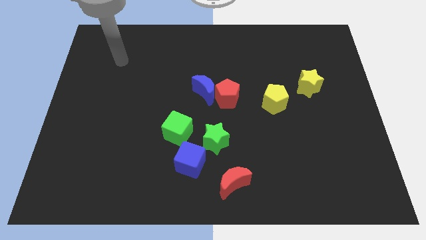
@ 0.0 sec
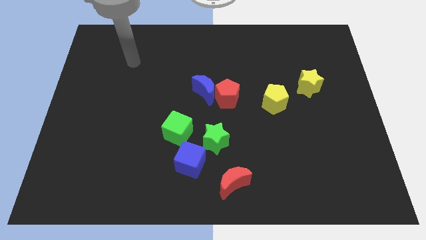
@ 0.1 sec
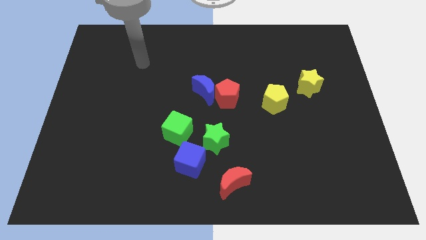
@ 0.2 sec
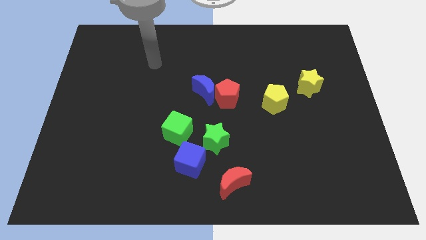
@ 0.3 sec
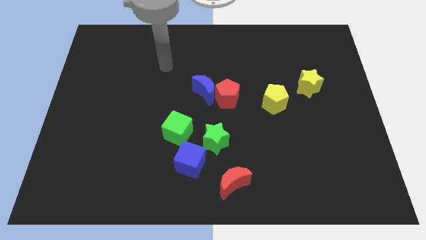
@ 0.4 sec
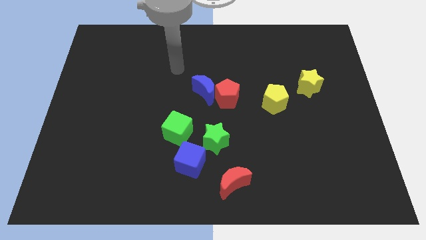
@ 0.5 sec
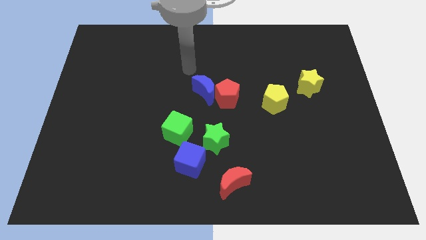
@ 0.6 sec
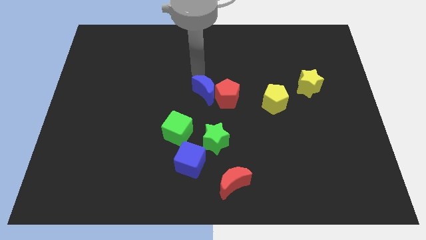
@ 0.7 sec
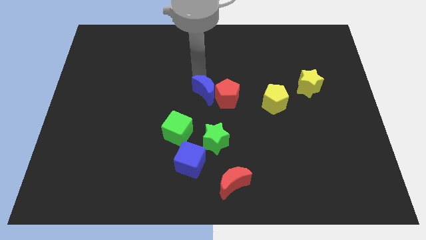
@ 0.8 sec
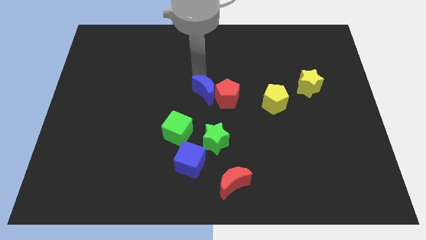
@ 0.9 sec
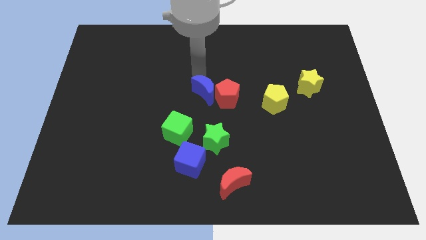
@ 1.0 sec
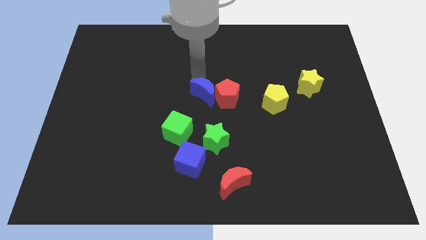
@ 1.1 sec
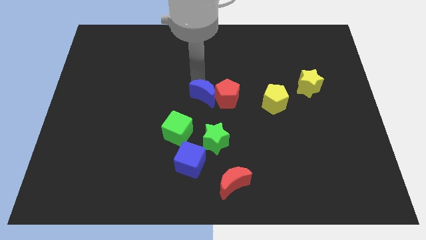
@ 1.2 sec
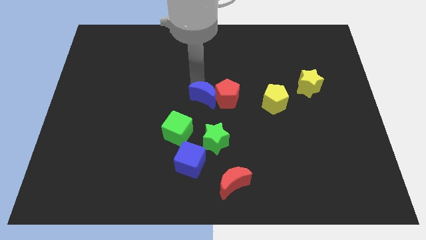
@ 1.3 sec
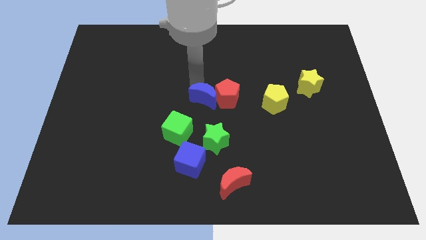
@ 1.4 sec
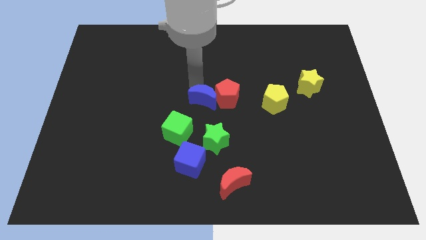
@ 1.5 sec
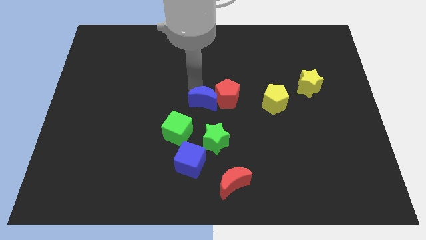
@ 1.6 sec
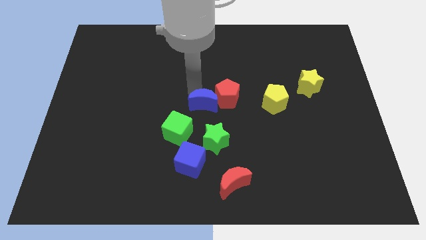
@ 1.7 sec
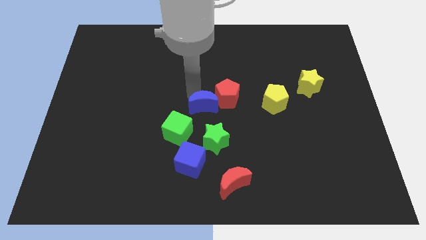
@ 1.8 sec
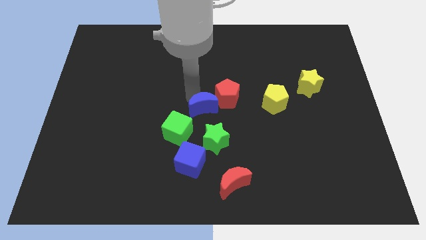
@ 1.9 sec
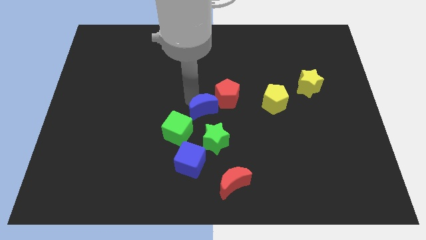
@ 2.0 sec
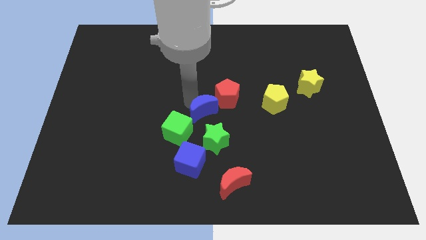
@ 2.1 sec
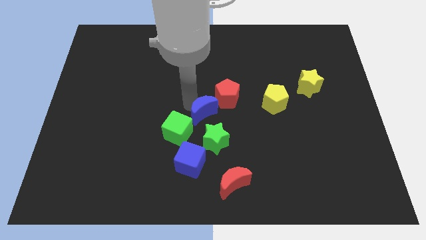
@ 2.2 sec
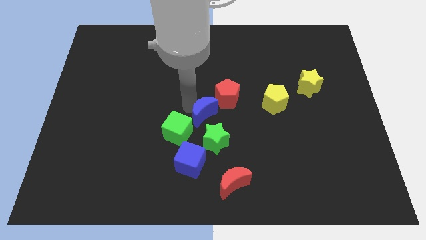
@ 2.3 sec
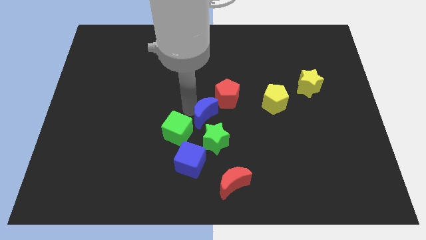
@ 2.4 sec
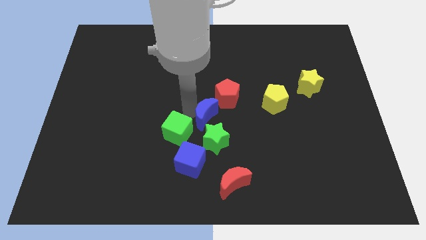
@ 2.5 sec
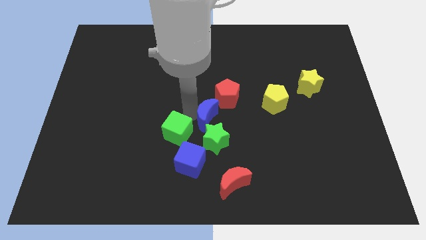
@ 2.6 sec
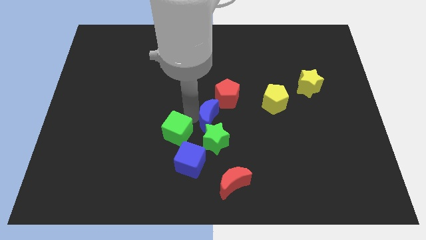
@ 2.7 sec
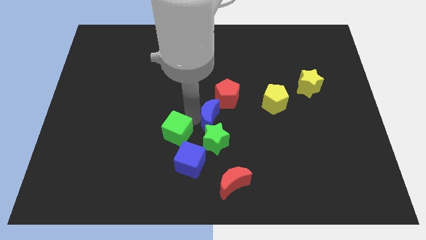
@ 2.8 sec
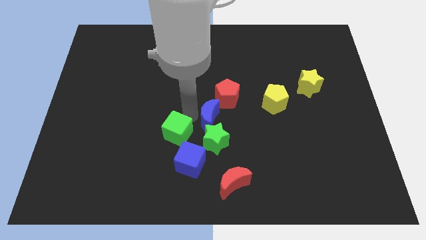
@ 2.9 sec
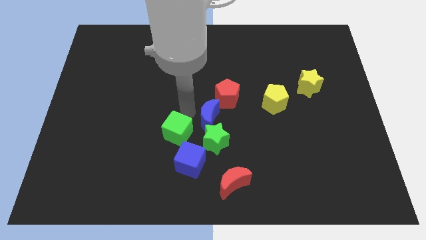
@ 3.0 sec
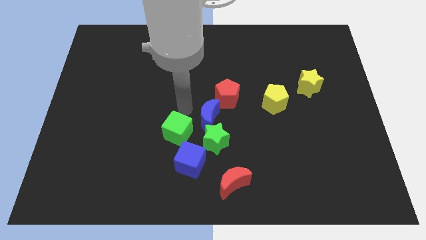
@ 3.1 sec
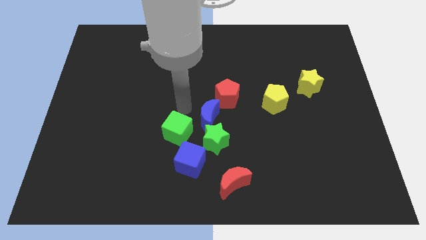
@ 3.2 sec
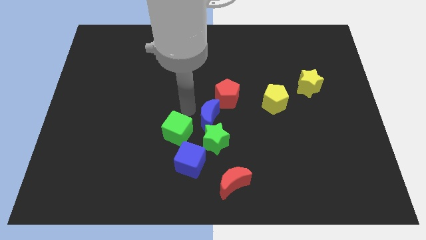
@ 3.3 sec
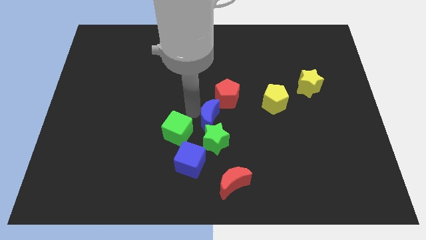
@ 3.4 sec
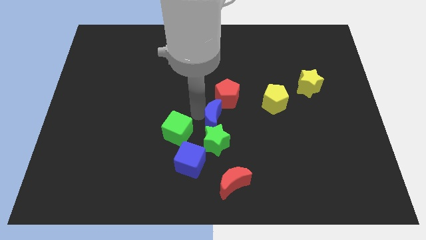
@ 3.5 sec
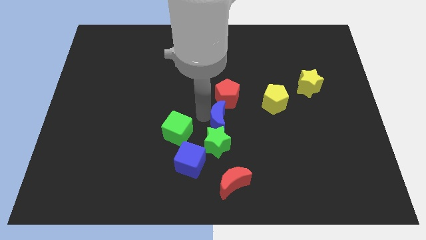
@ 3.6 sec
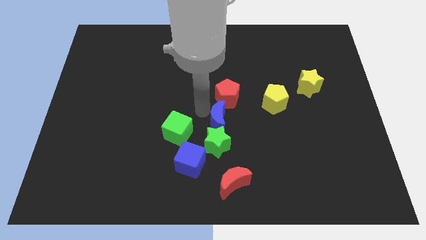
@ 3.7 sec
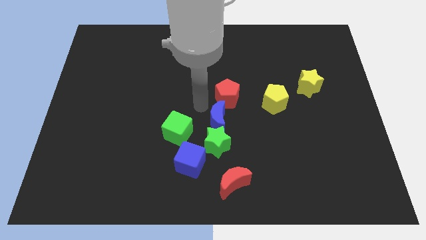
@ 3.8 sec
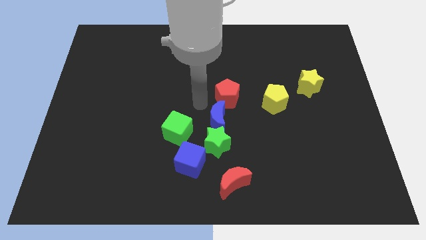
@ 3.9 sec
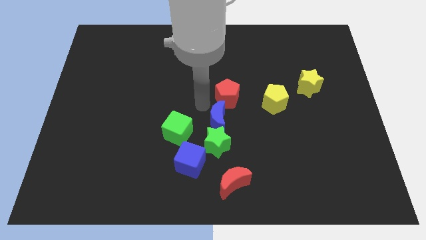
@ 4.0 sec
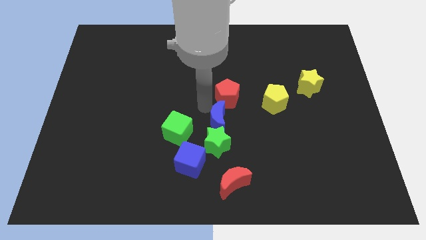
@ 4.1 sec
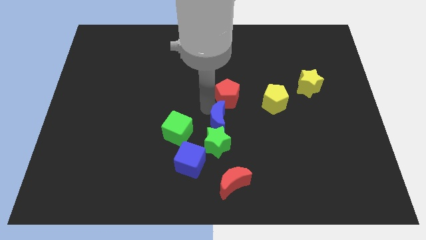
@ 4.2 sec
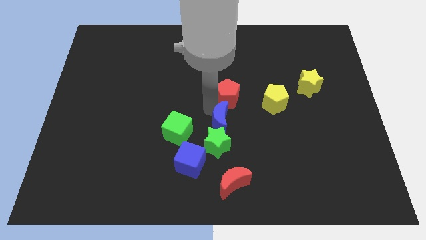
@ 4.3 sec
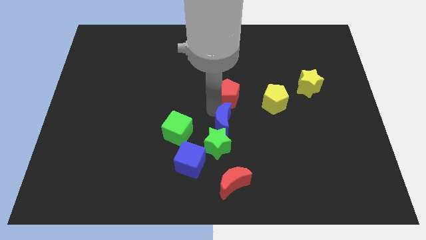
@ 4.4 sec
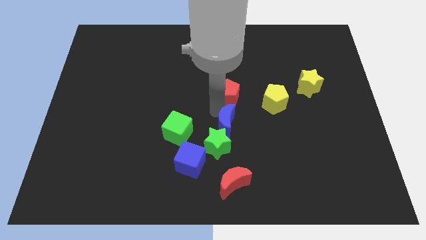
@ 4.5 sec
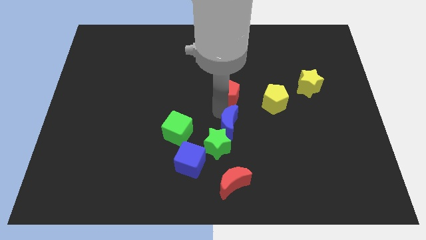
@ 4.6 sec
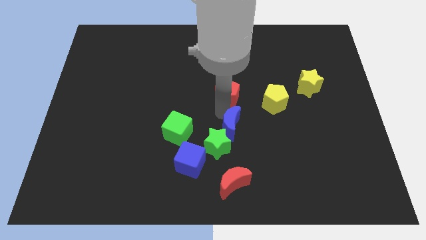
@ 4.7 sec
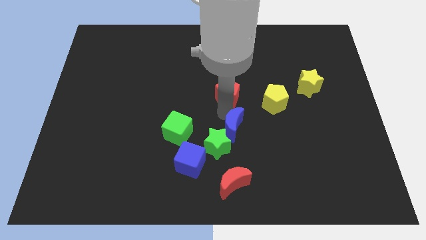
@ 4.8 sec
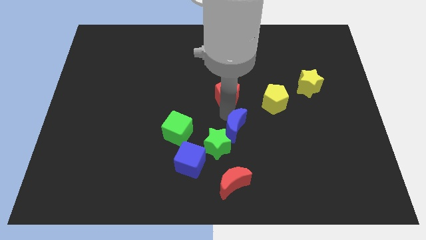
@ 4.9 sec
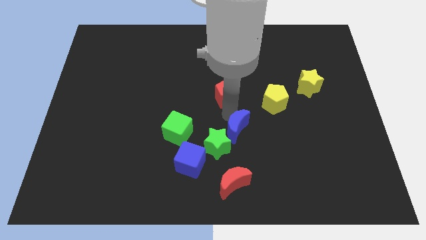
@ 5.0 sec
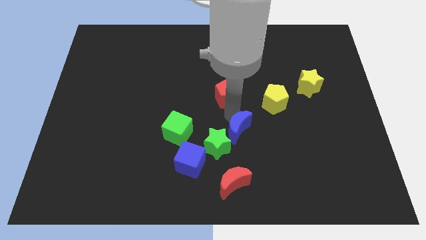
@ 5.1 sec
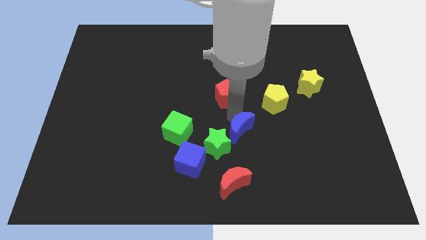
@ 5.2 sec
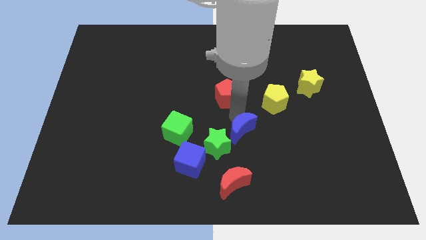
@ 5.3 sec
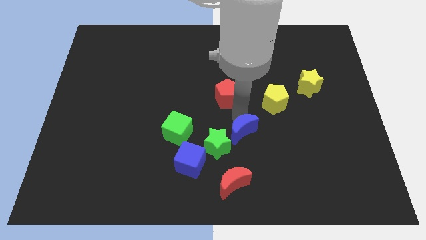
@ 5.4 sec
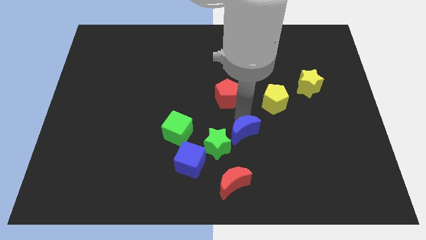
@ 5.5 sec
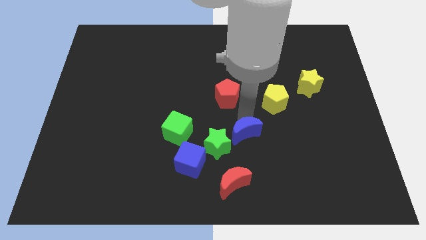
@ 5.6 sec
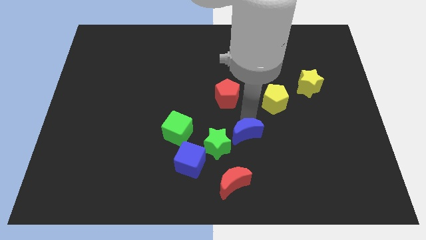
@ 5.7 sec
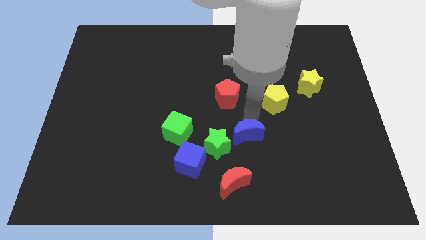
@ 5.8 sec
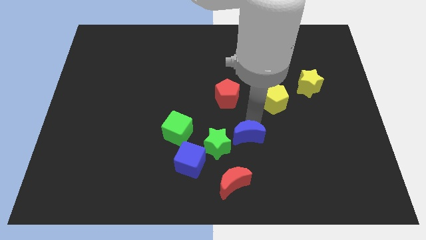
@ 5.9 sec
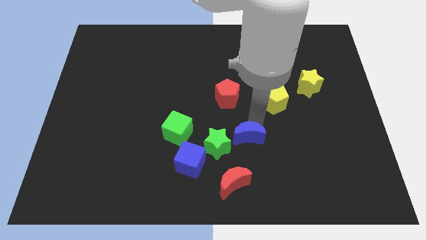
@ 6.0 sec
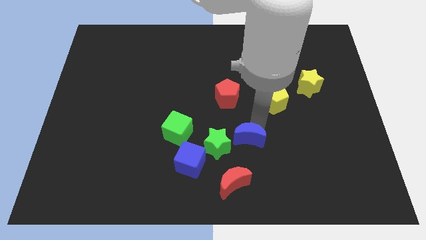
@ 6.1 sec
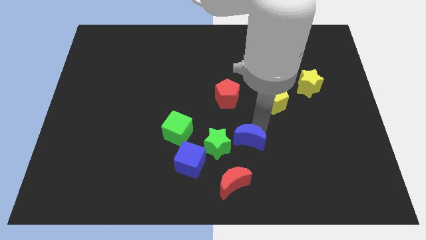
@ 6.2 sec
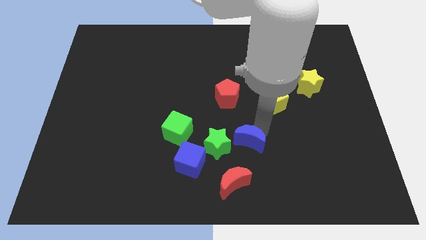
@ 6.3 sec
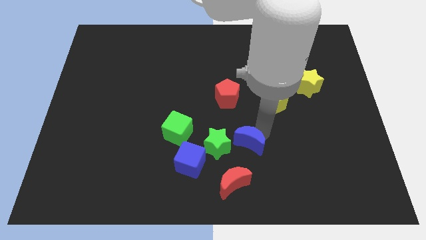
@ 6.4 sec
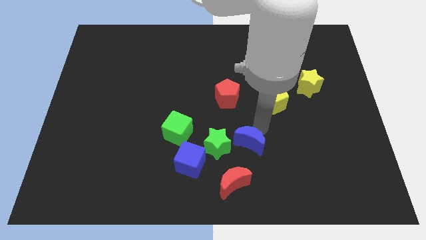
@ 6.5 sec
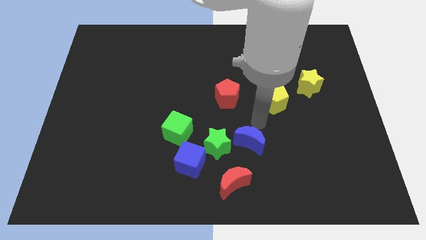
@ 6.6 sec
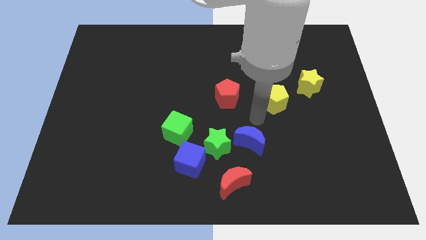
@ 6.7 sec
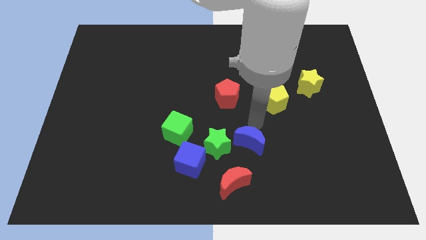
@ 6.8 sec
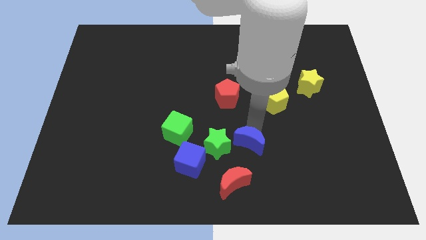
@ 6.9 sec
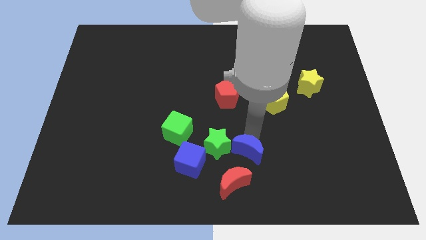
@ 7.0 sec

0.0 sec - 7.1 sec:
slide the blue moon to the bottom right side of the green star

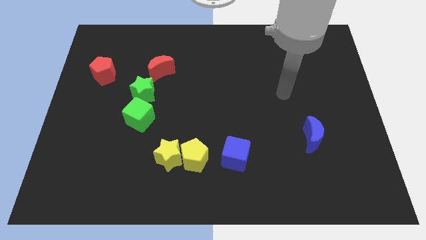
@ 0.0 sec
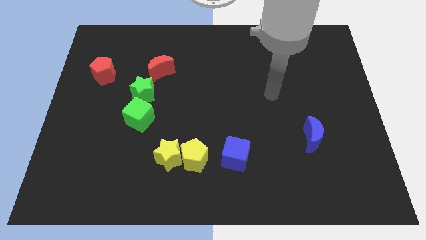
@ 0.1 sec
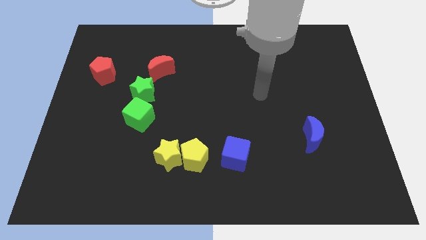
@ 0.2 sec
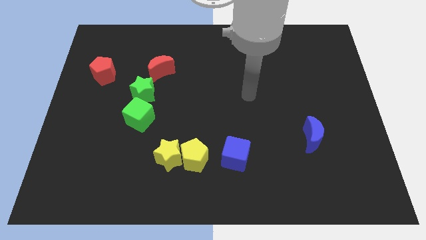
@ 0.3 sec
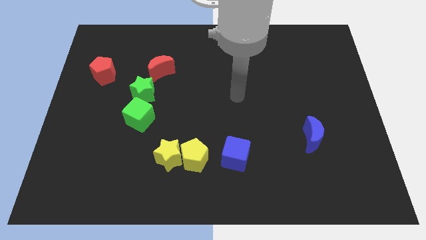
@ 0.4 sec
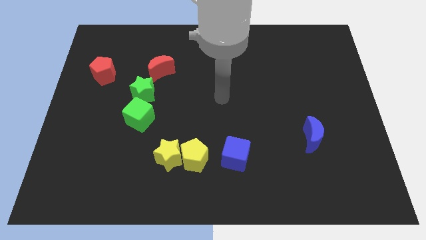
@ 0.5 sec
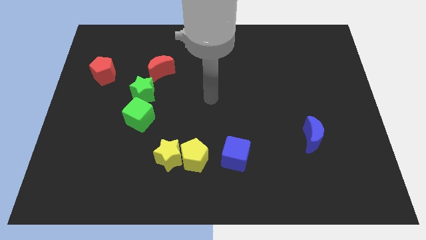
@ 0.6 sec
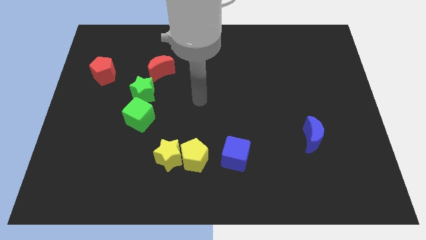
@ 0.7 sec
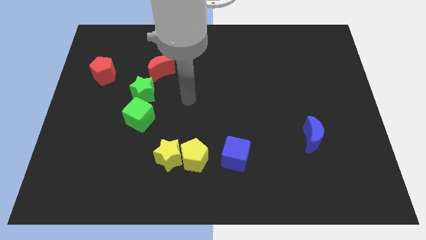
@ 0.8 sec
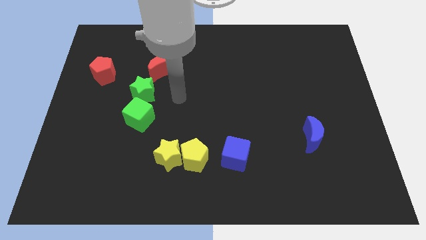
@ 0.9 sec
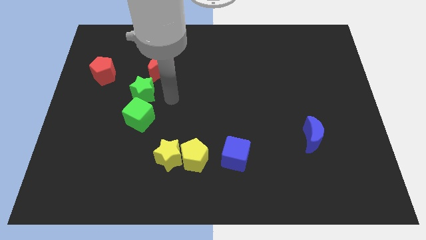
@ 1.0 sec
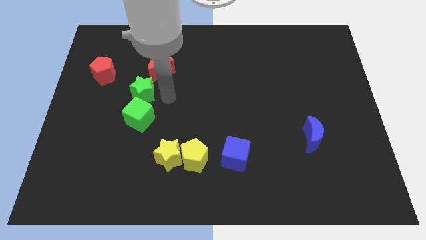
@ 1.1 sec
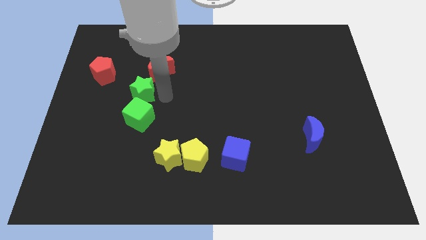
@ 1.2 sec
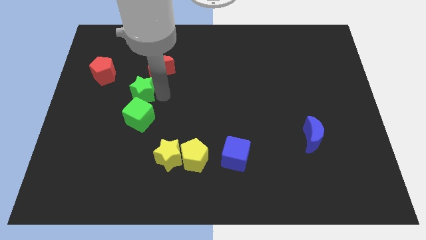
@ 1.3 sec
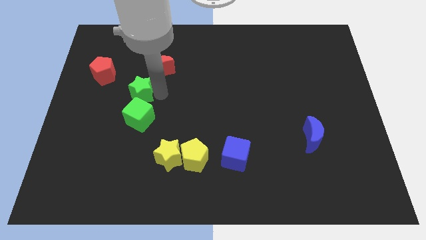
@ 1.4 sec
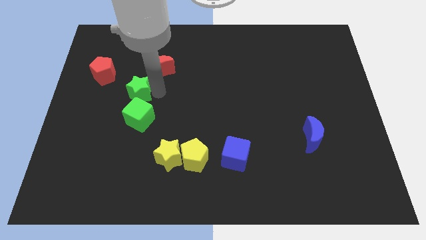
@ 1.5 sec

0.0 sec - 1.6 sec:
push the green star to the bottom right side of the red pentagon
